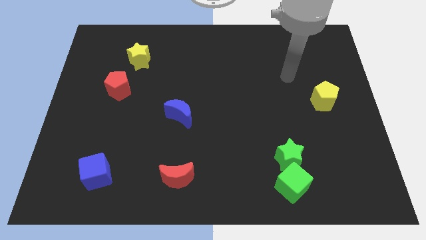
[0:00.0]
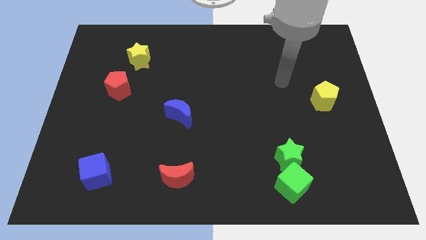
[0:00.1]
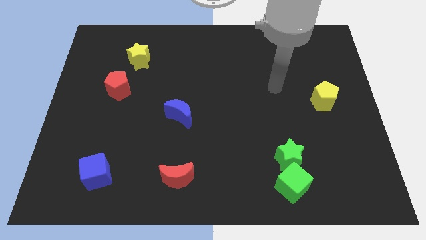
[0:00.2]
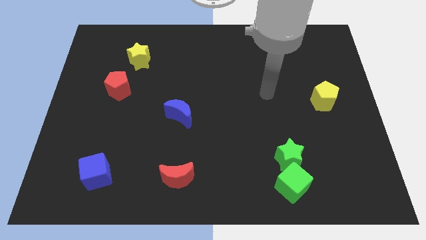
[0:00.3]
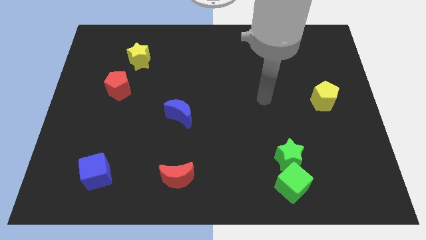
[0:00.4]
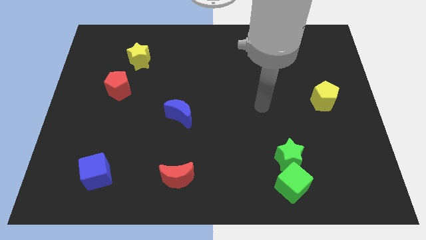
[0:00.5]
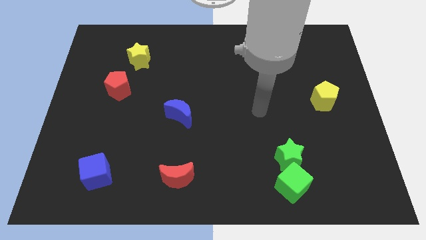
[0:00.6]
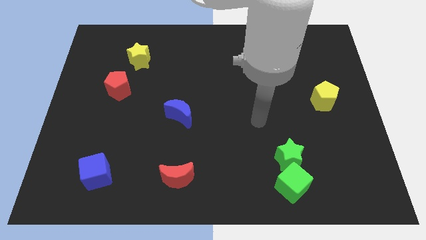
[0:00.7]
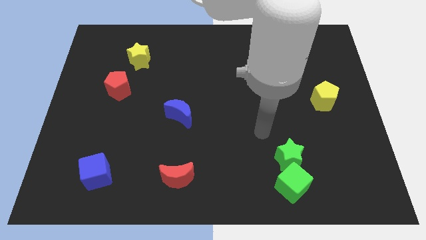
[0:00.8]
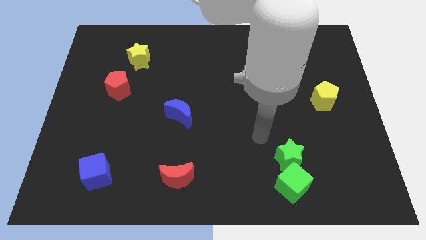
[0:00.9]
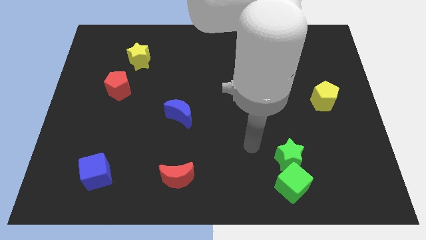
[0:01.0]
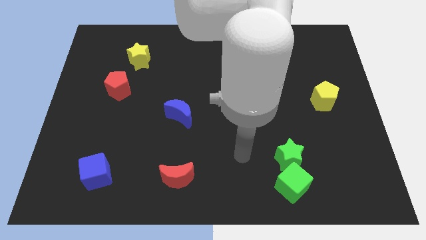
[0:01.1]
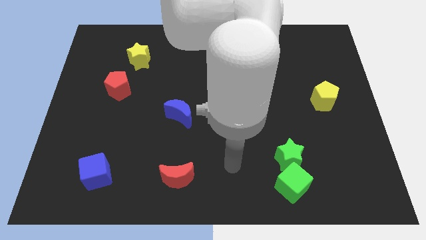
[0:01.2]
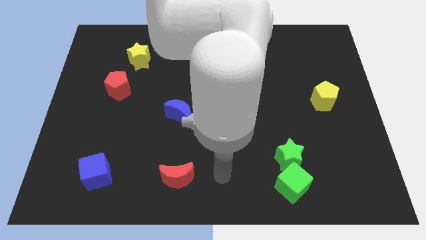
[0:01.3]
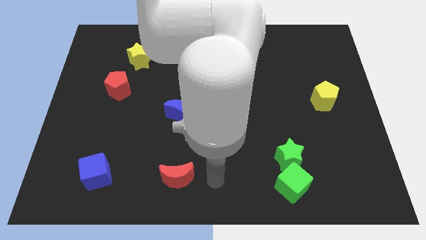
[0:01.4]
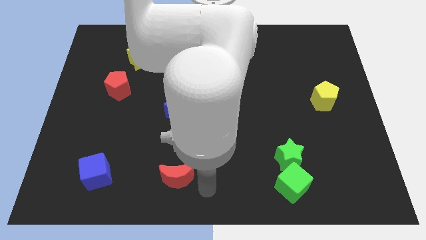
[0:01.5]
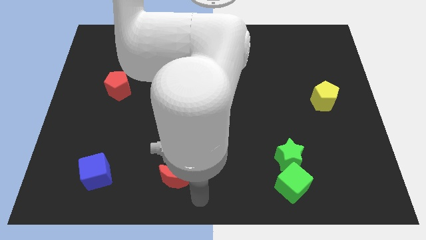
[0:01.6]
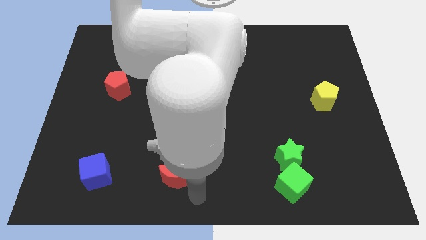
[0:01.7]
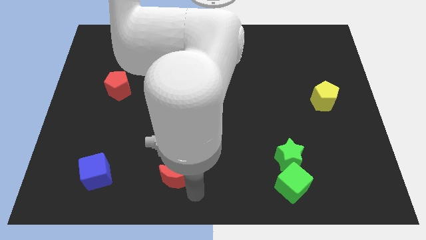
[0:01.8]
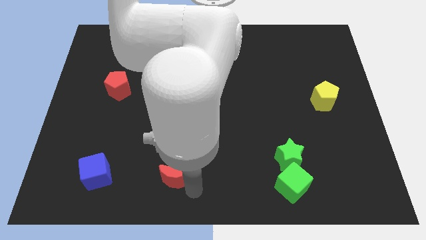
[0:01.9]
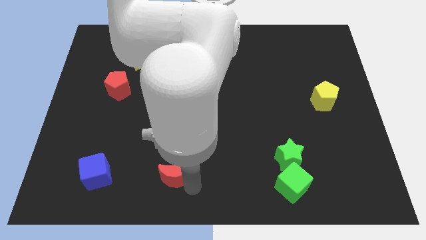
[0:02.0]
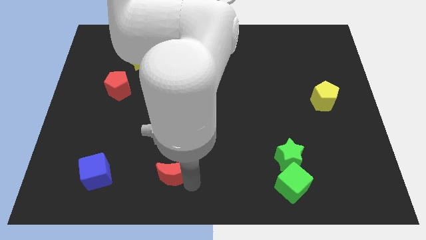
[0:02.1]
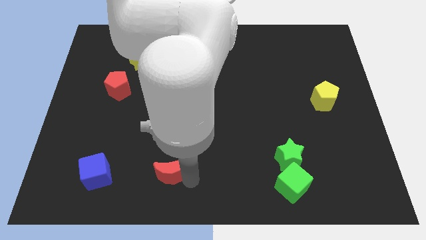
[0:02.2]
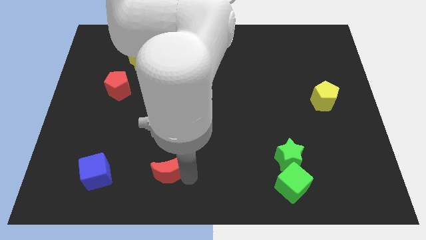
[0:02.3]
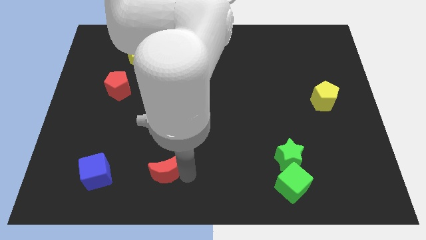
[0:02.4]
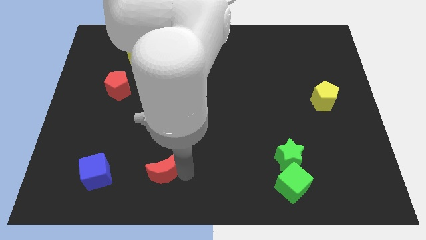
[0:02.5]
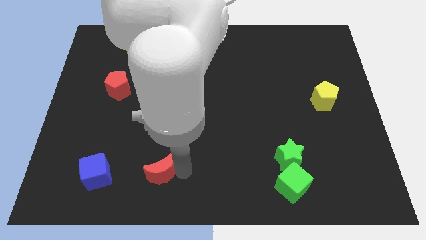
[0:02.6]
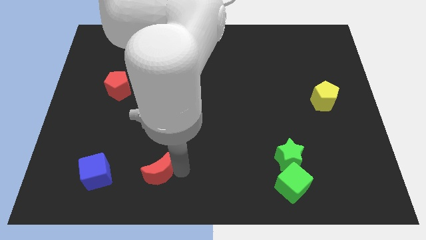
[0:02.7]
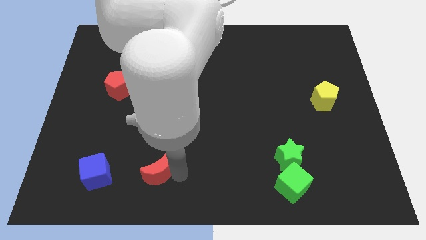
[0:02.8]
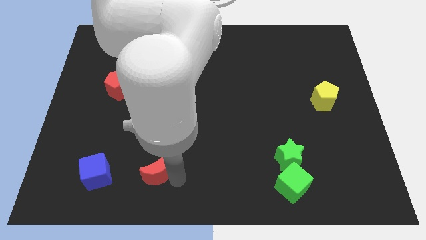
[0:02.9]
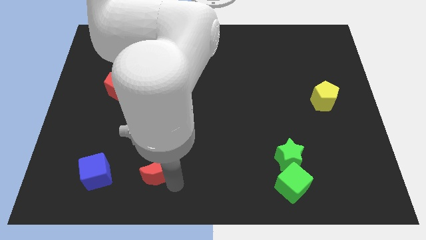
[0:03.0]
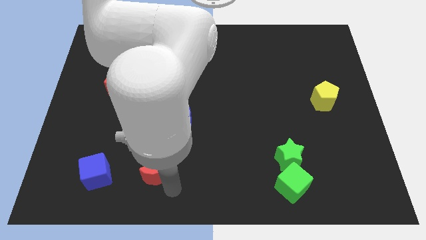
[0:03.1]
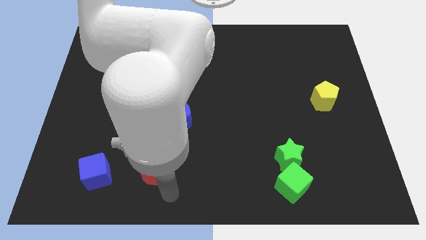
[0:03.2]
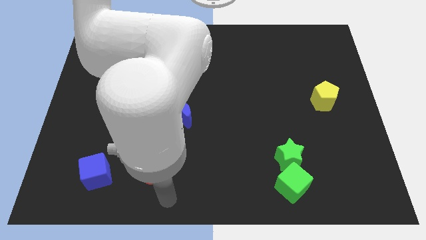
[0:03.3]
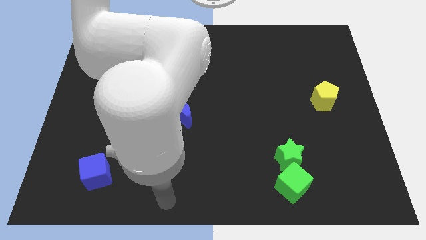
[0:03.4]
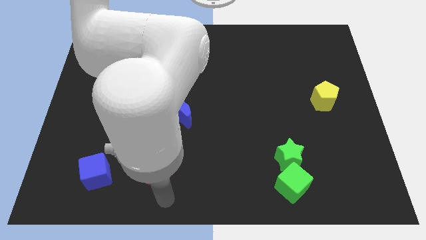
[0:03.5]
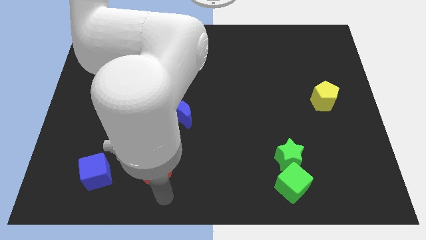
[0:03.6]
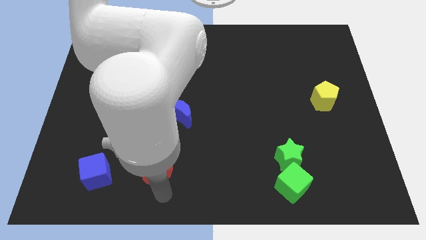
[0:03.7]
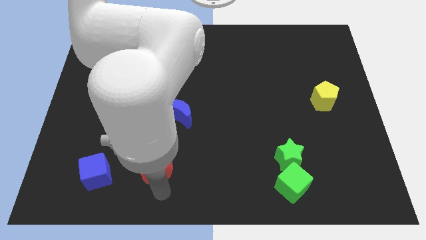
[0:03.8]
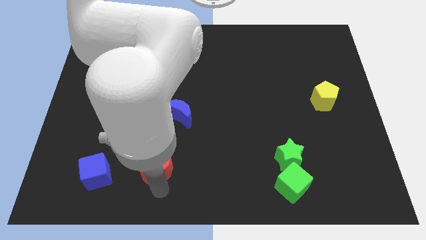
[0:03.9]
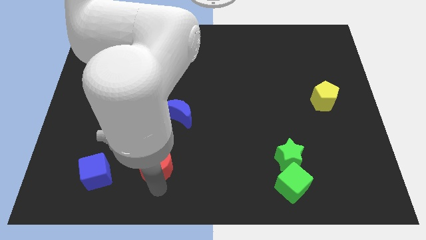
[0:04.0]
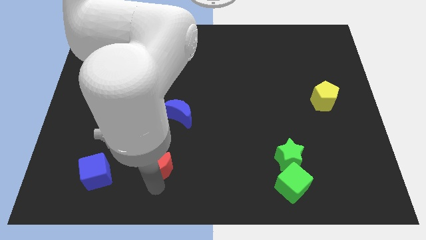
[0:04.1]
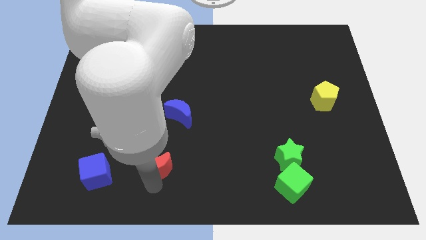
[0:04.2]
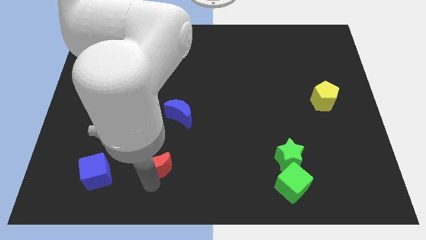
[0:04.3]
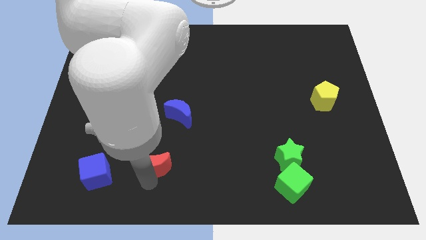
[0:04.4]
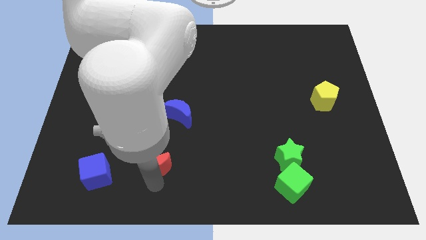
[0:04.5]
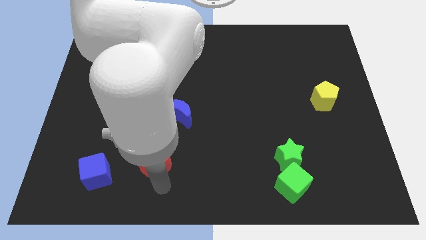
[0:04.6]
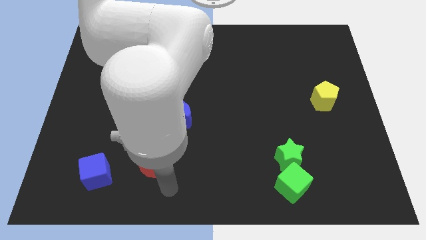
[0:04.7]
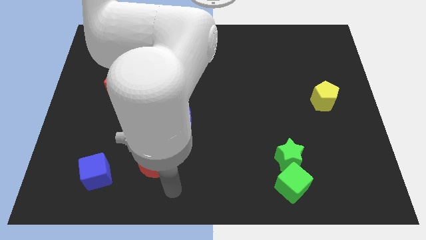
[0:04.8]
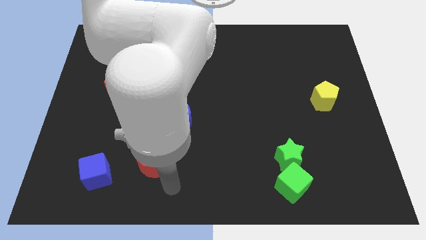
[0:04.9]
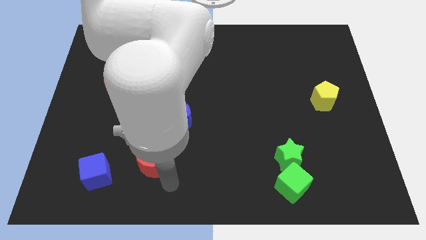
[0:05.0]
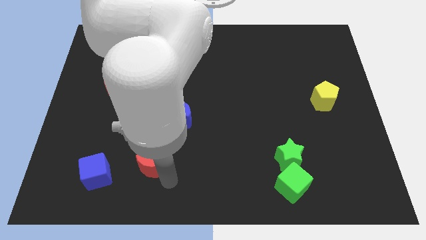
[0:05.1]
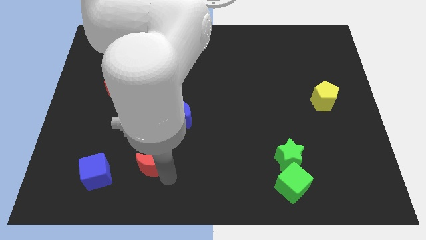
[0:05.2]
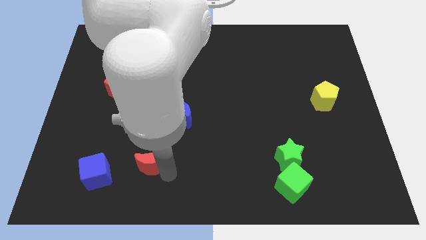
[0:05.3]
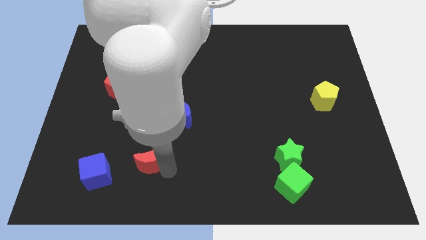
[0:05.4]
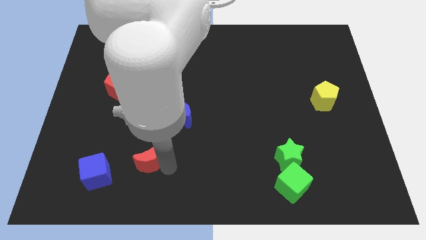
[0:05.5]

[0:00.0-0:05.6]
move the red moon slightly up and left diagonally

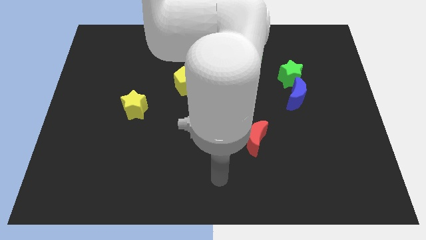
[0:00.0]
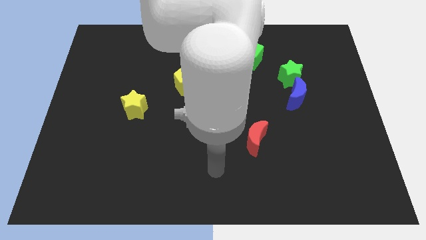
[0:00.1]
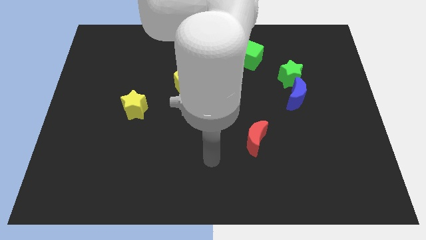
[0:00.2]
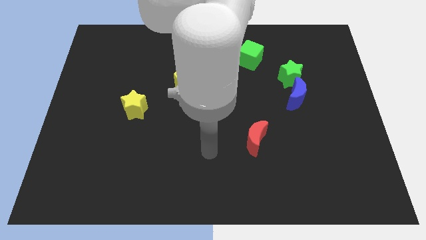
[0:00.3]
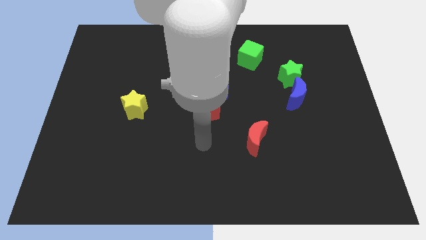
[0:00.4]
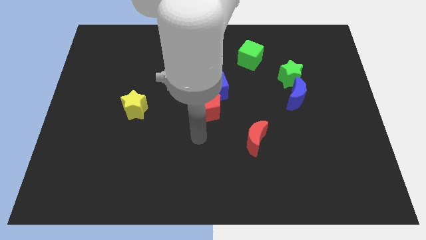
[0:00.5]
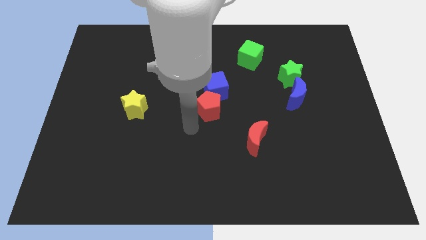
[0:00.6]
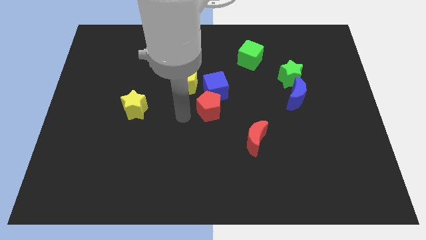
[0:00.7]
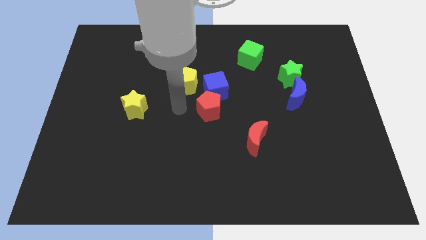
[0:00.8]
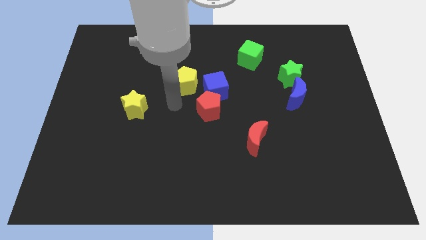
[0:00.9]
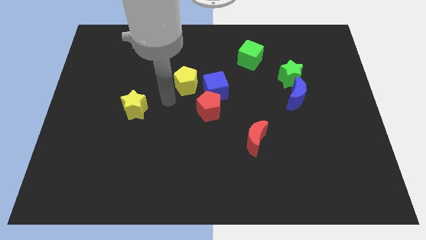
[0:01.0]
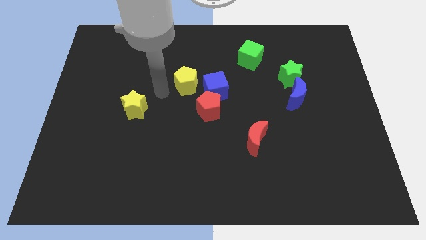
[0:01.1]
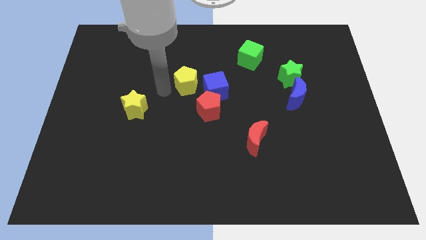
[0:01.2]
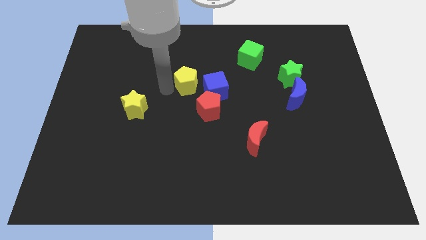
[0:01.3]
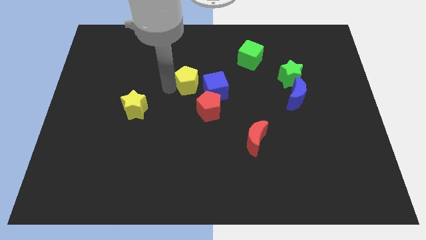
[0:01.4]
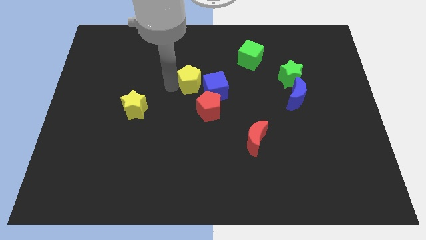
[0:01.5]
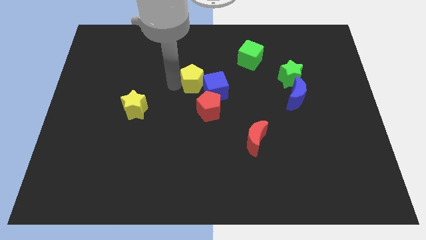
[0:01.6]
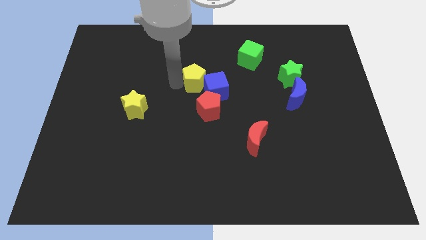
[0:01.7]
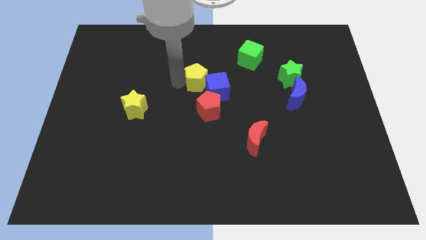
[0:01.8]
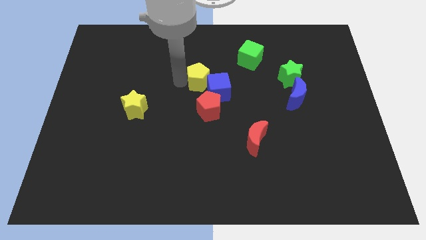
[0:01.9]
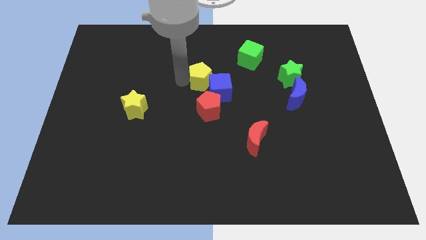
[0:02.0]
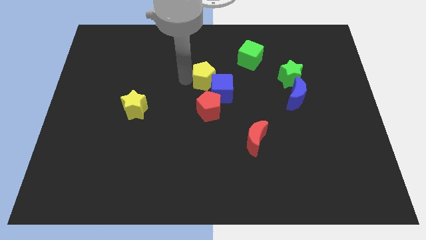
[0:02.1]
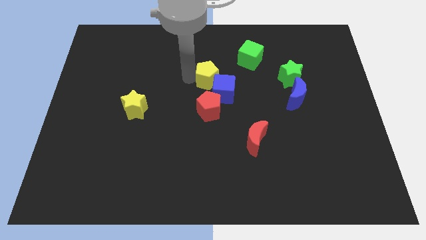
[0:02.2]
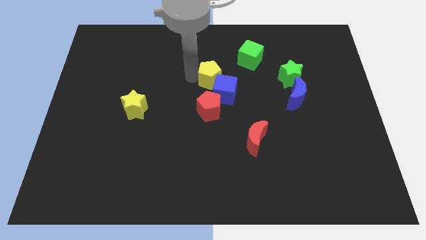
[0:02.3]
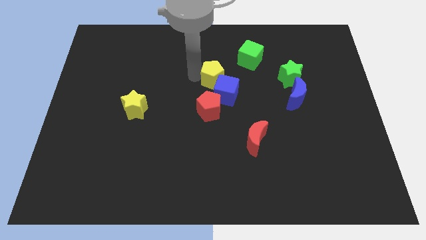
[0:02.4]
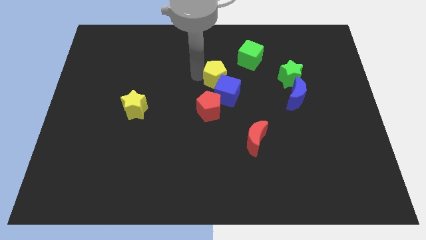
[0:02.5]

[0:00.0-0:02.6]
move the yellow pentagon a little to the right

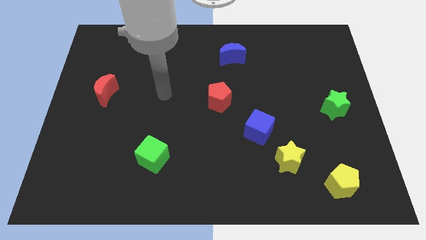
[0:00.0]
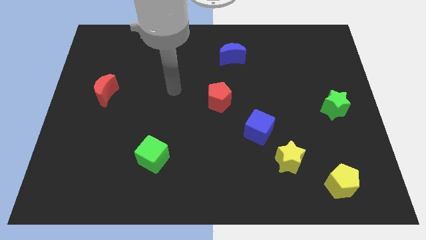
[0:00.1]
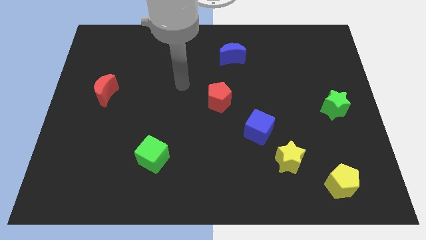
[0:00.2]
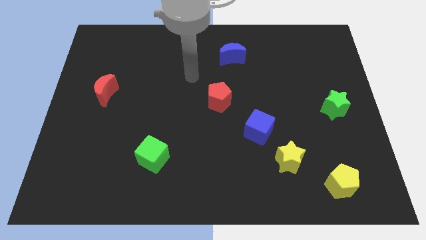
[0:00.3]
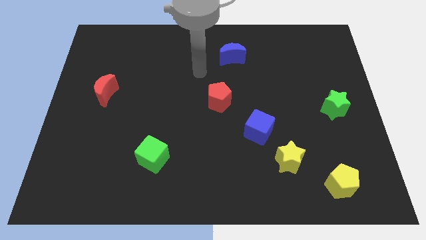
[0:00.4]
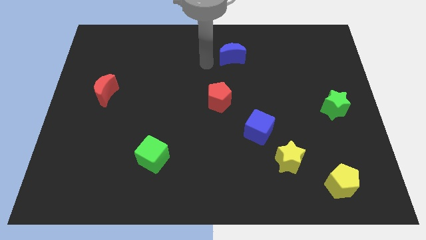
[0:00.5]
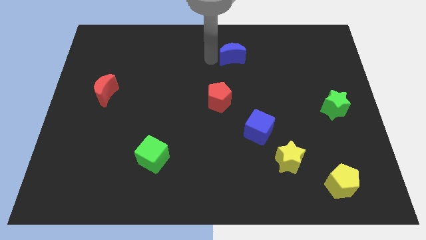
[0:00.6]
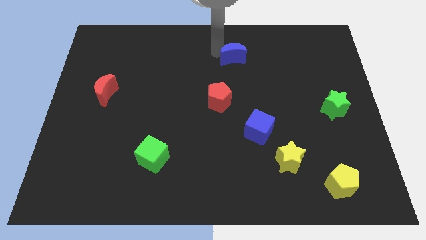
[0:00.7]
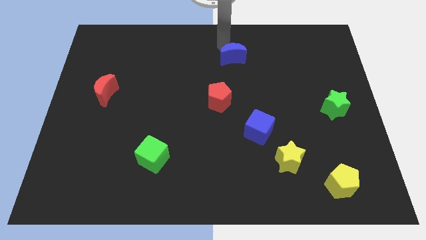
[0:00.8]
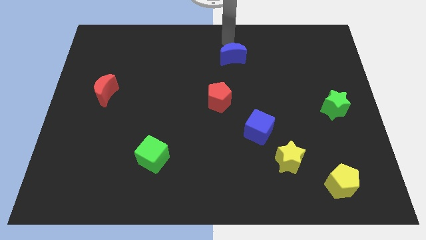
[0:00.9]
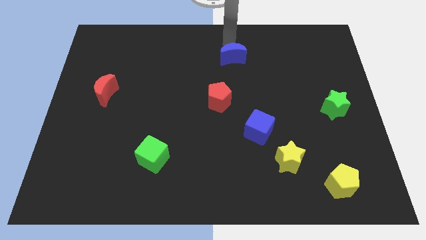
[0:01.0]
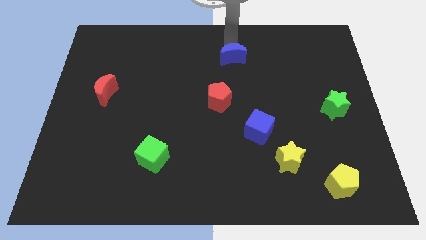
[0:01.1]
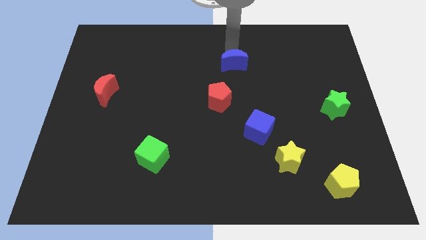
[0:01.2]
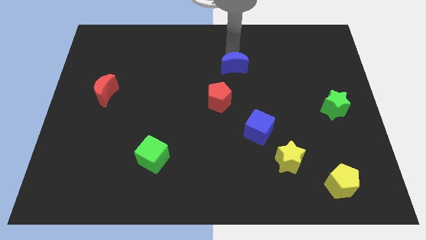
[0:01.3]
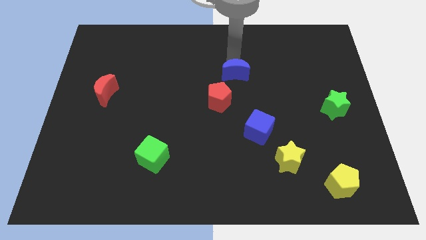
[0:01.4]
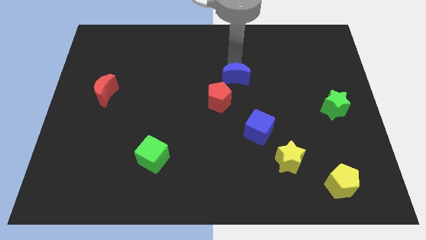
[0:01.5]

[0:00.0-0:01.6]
move the blue moon a little bit downwards
